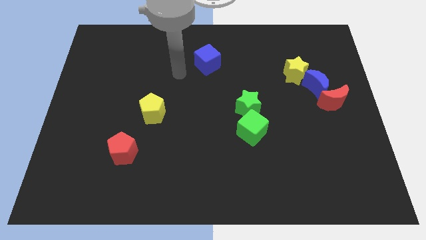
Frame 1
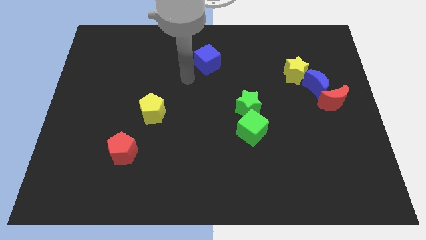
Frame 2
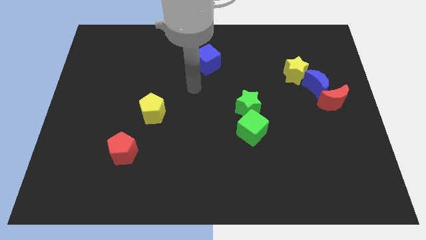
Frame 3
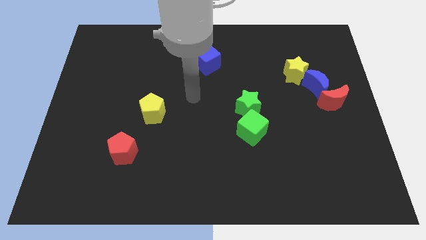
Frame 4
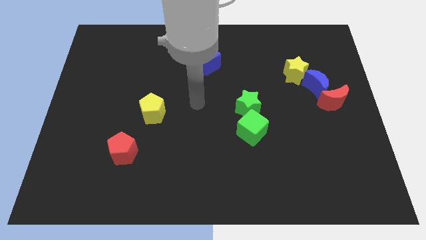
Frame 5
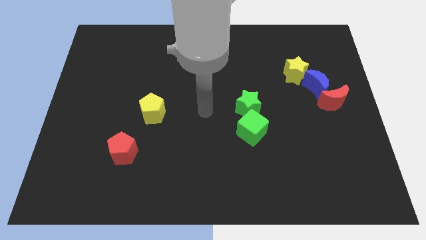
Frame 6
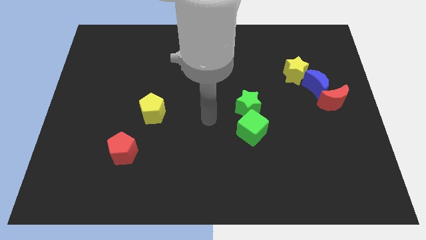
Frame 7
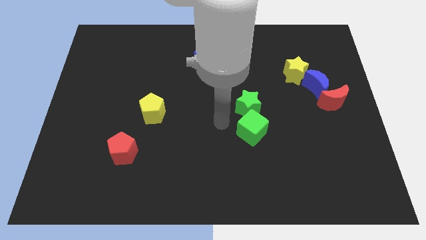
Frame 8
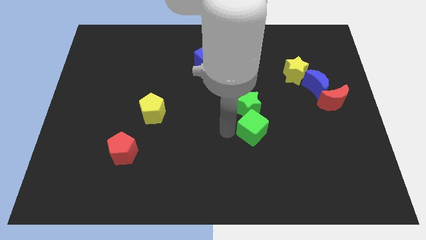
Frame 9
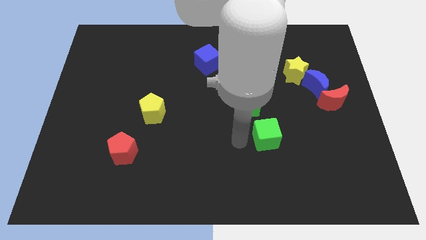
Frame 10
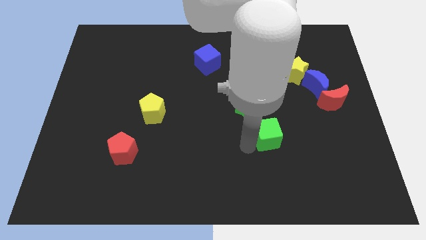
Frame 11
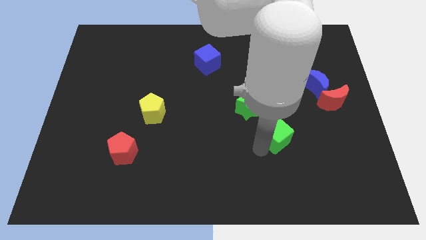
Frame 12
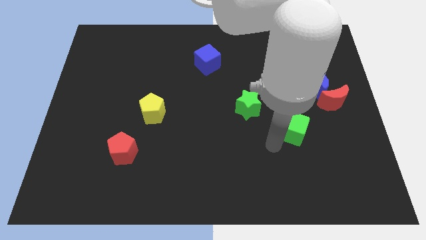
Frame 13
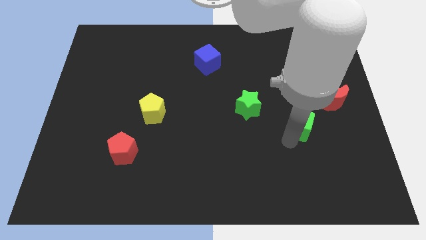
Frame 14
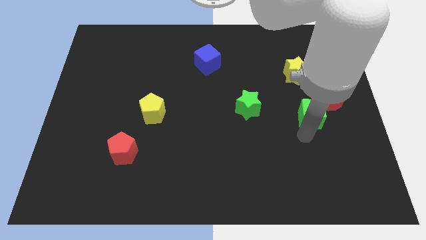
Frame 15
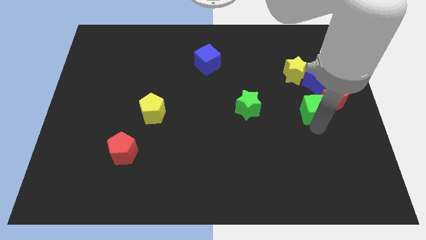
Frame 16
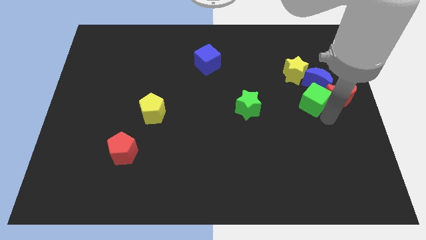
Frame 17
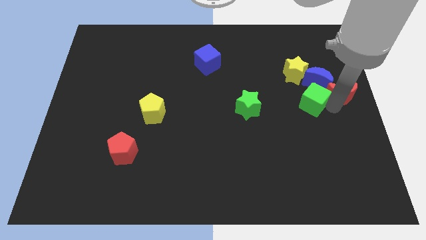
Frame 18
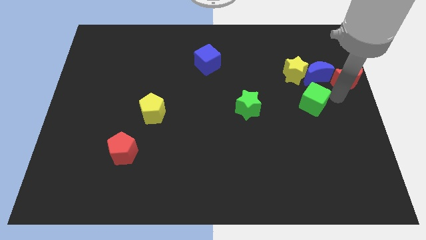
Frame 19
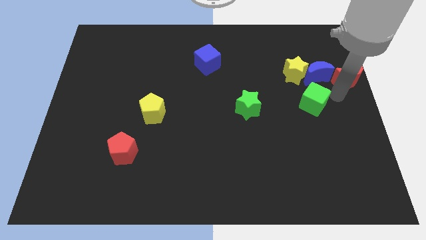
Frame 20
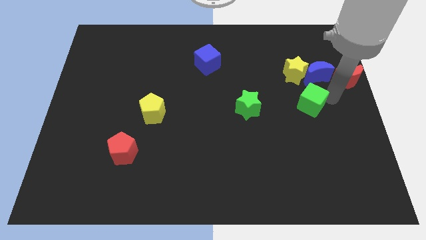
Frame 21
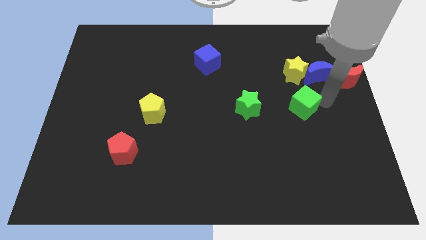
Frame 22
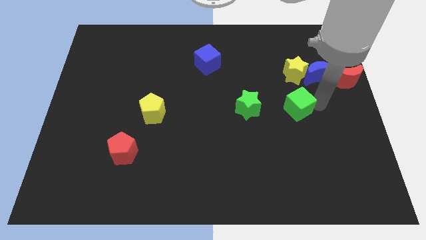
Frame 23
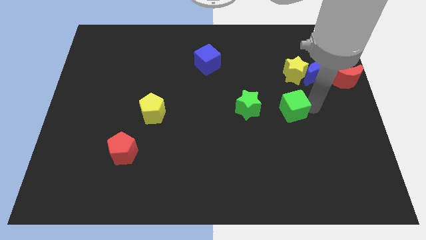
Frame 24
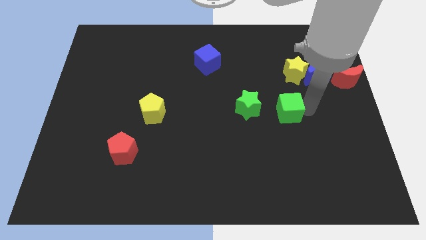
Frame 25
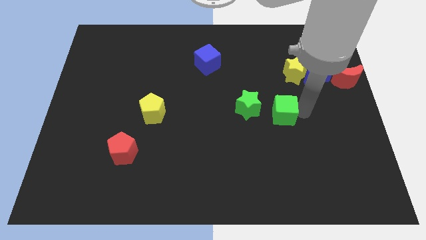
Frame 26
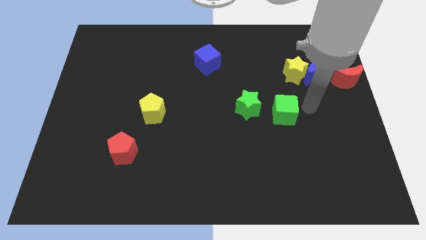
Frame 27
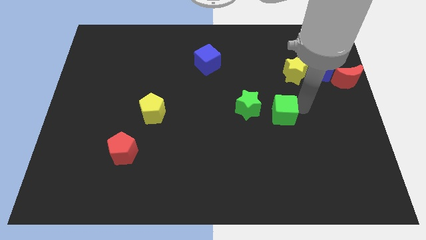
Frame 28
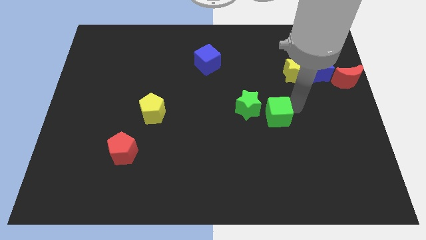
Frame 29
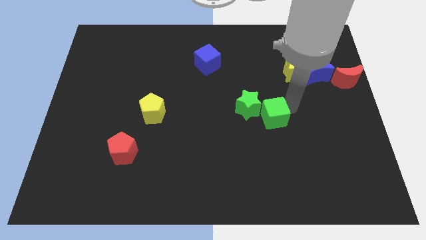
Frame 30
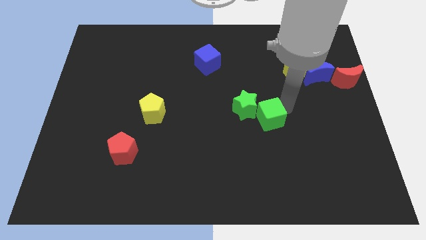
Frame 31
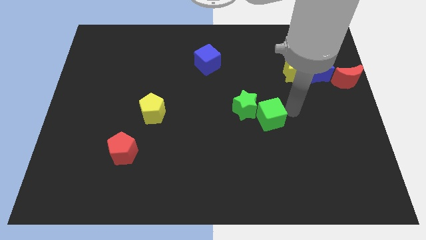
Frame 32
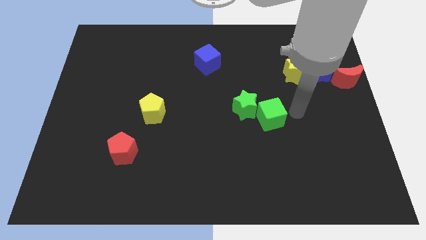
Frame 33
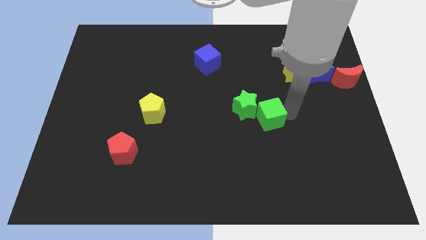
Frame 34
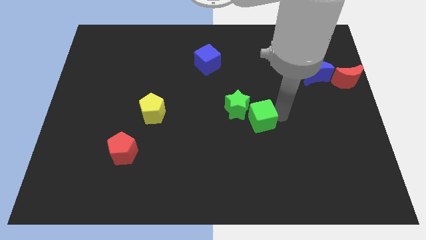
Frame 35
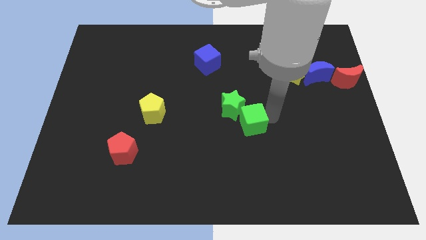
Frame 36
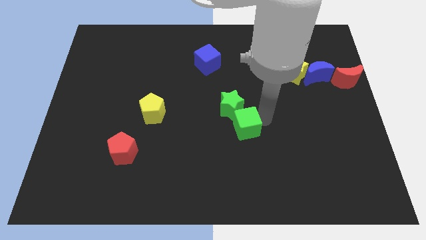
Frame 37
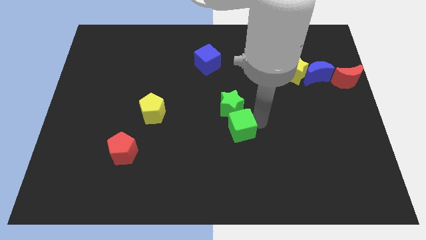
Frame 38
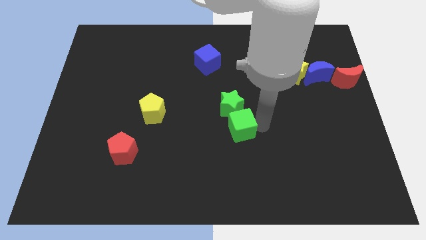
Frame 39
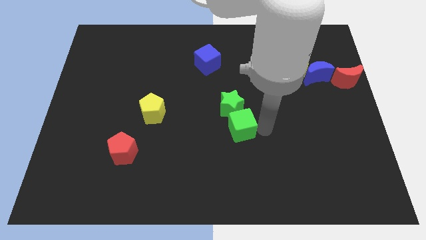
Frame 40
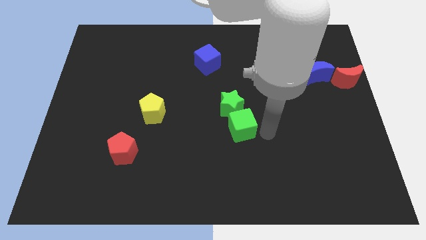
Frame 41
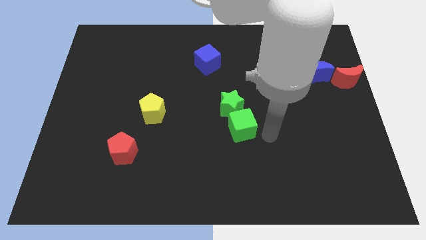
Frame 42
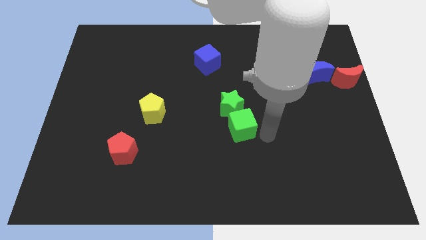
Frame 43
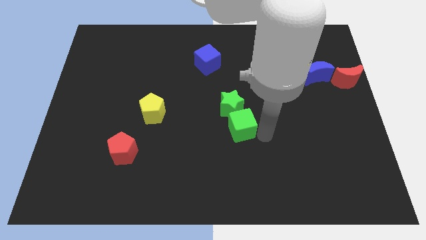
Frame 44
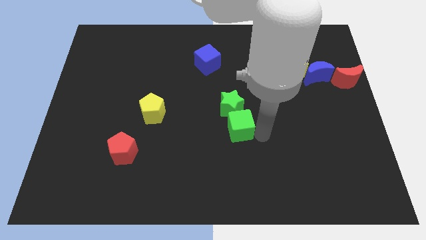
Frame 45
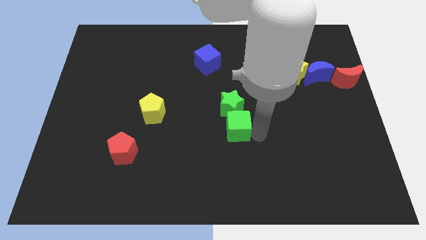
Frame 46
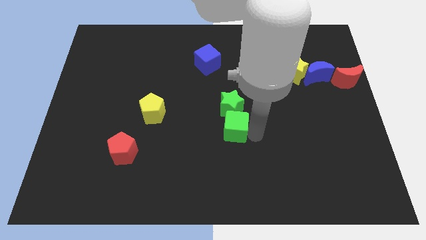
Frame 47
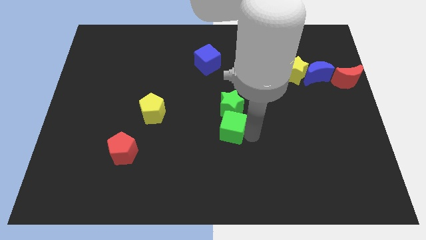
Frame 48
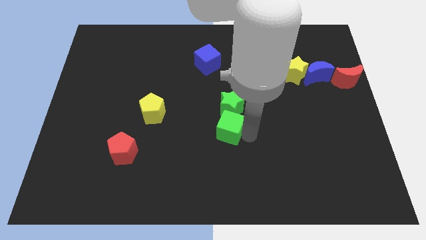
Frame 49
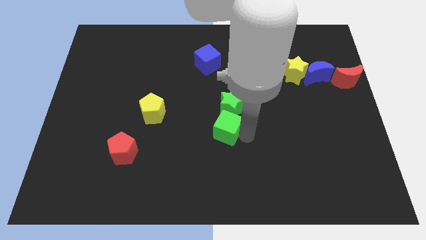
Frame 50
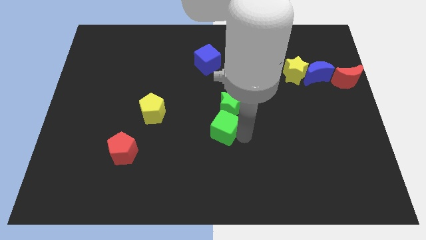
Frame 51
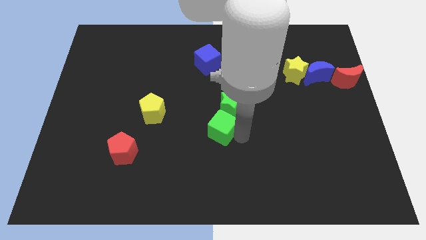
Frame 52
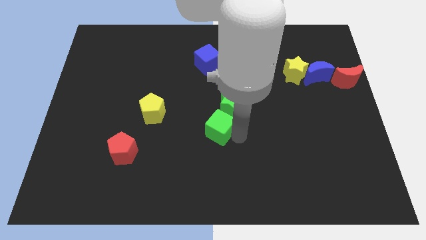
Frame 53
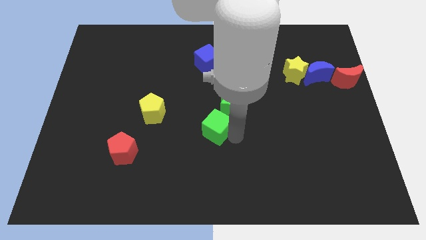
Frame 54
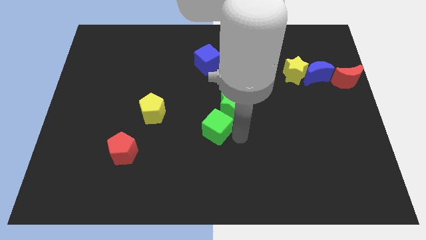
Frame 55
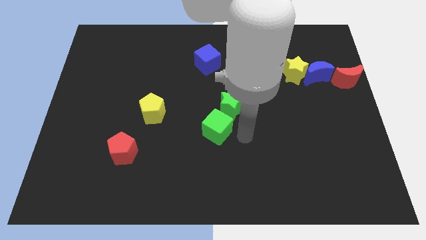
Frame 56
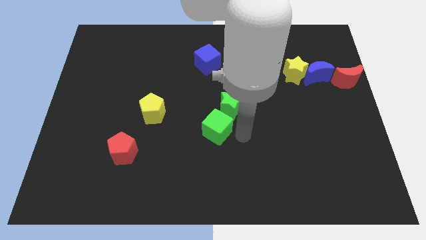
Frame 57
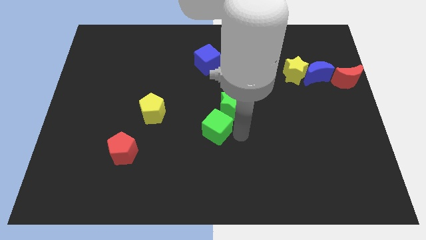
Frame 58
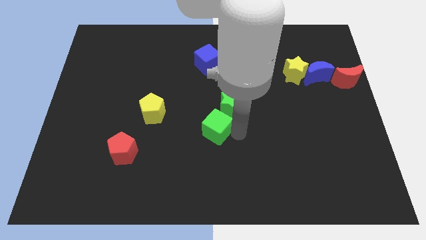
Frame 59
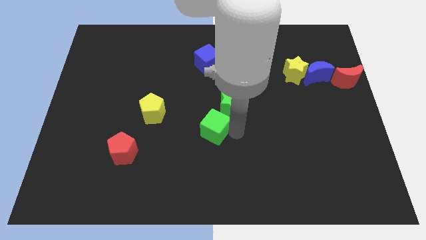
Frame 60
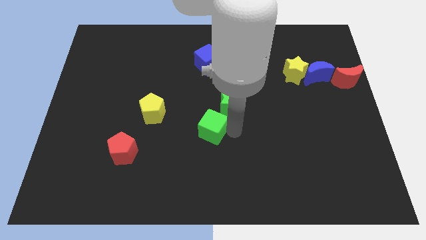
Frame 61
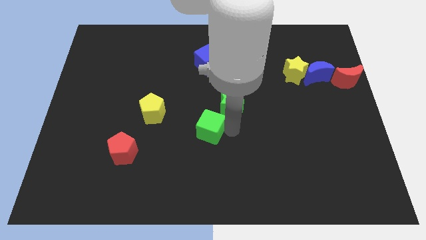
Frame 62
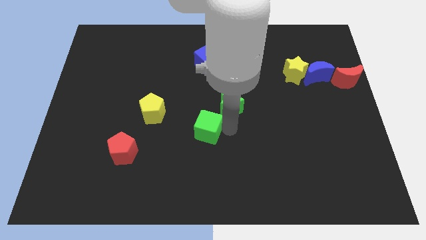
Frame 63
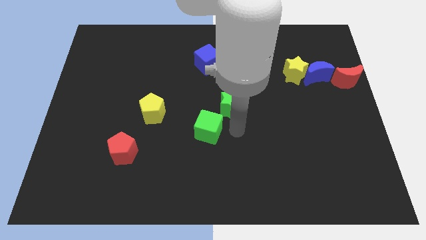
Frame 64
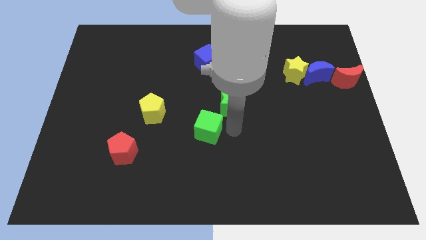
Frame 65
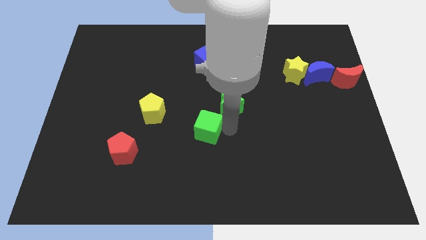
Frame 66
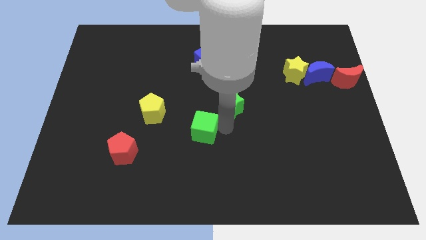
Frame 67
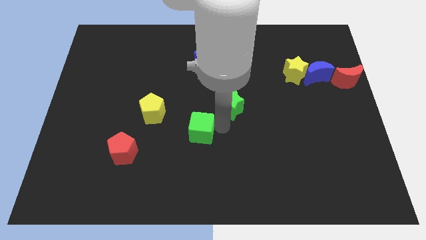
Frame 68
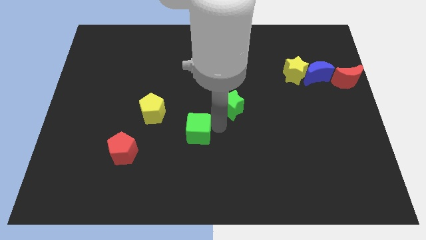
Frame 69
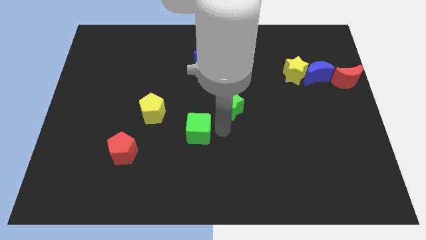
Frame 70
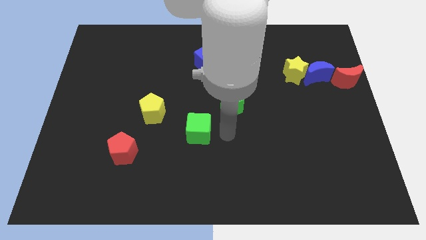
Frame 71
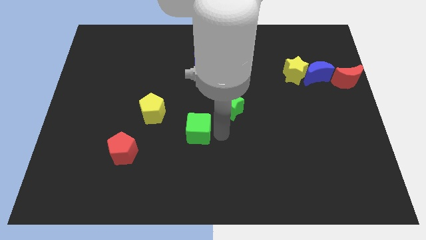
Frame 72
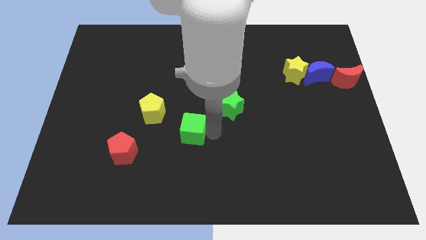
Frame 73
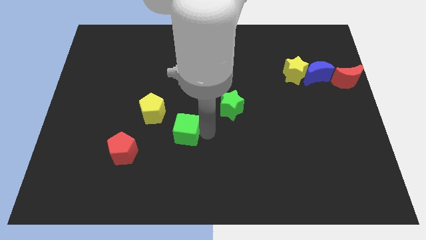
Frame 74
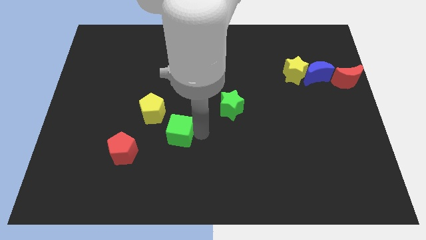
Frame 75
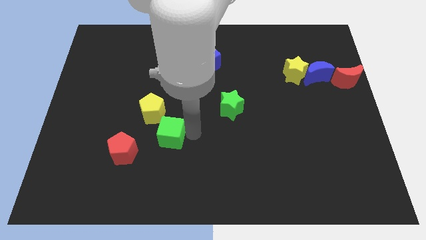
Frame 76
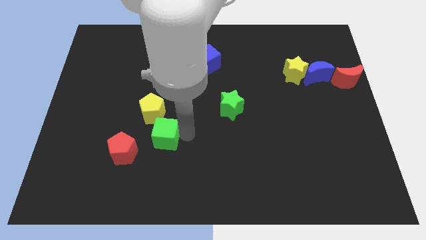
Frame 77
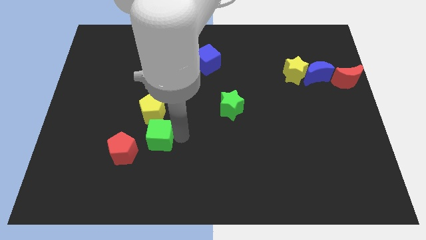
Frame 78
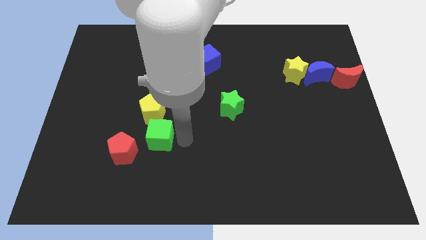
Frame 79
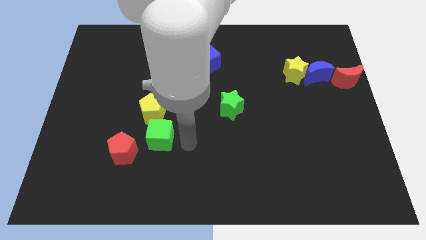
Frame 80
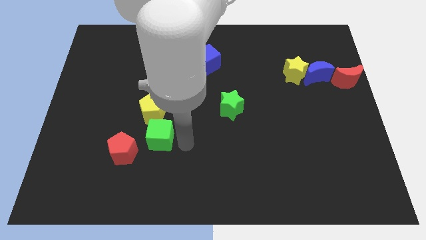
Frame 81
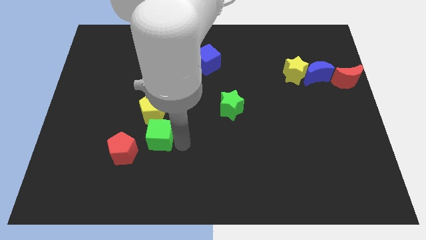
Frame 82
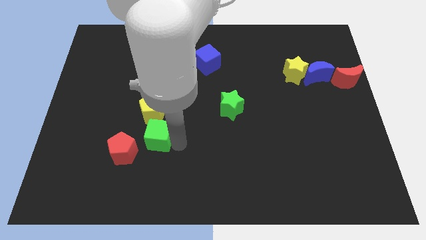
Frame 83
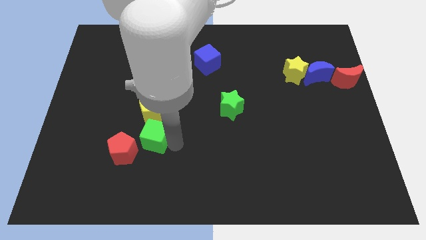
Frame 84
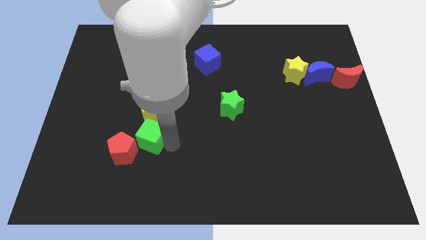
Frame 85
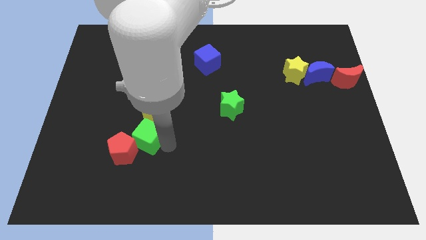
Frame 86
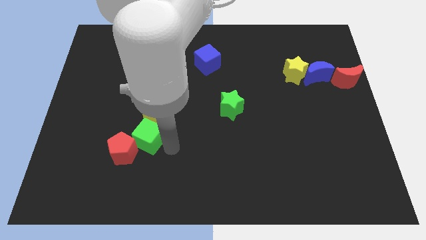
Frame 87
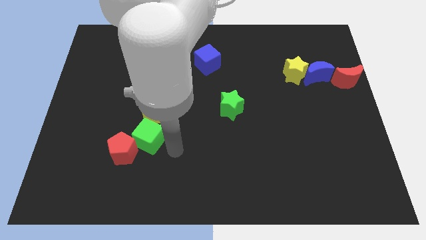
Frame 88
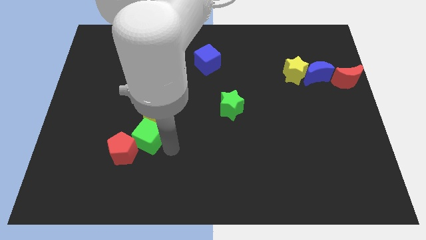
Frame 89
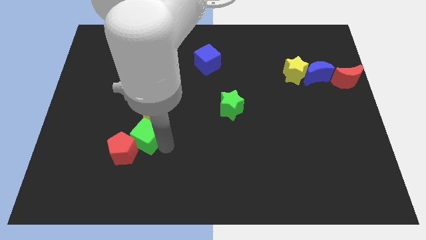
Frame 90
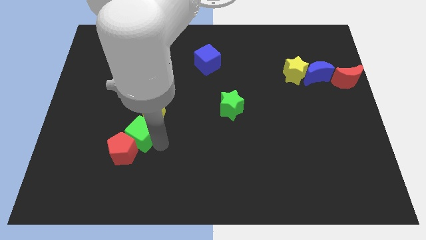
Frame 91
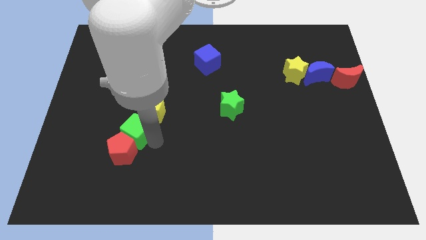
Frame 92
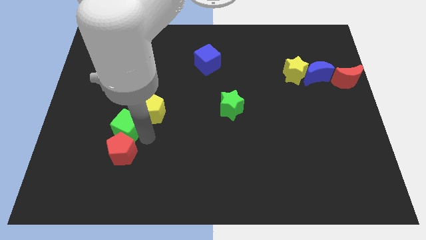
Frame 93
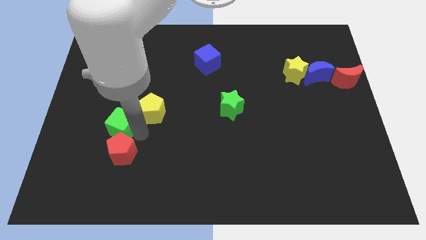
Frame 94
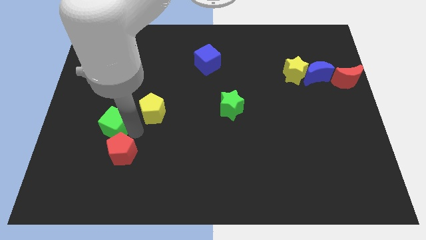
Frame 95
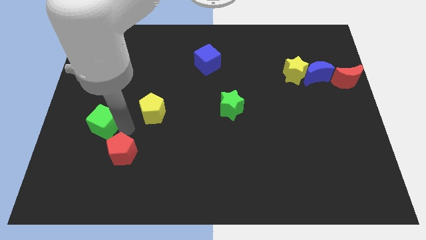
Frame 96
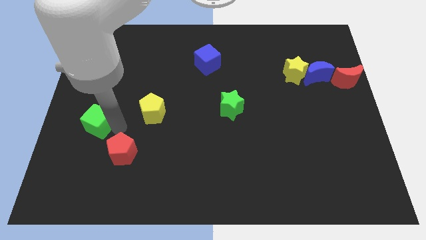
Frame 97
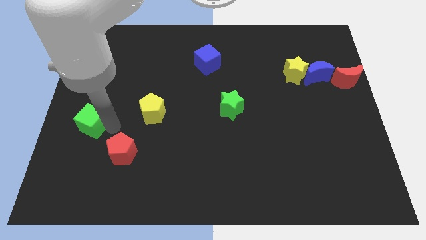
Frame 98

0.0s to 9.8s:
move the green cube to the left side of the board
